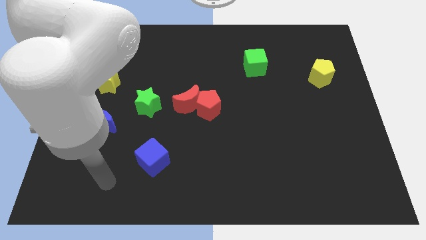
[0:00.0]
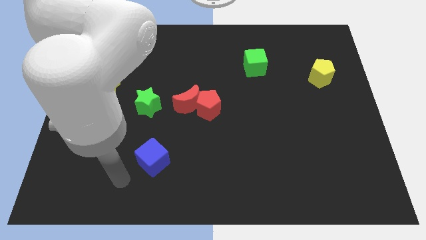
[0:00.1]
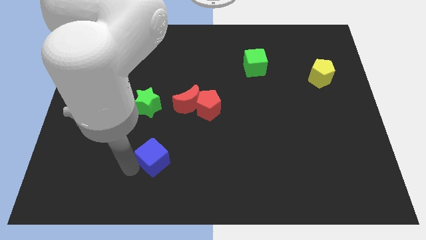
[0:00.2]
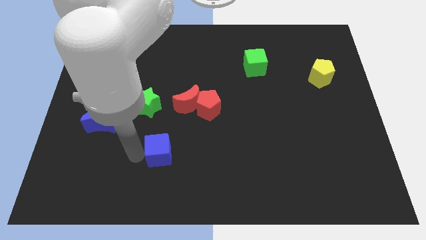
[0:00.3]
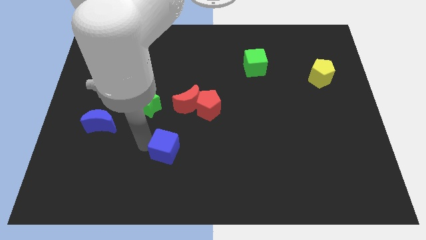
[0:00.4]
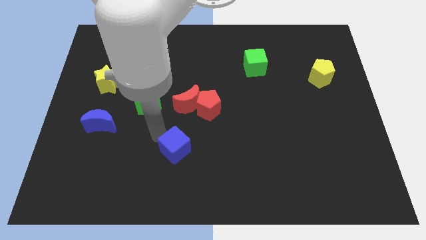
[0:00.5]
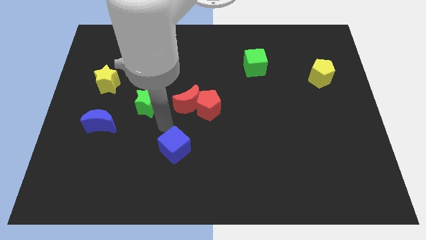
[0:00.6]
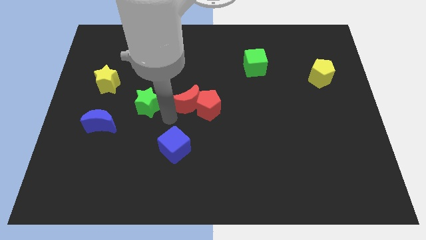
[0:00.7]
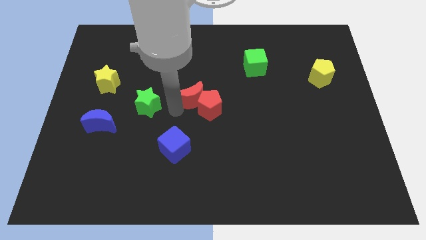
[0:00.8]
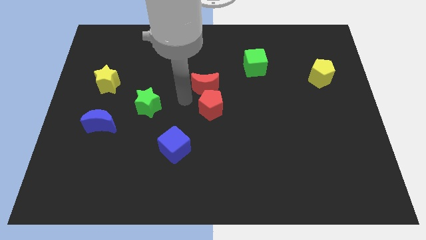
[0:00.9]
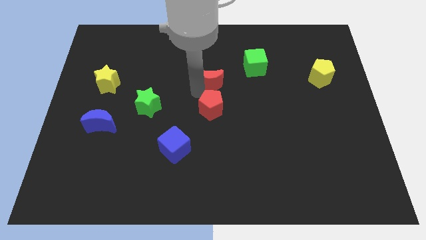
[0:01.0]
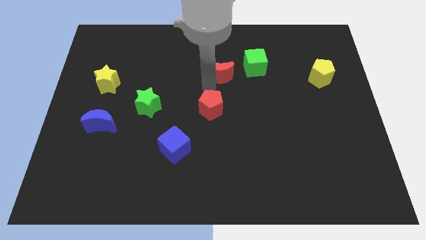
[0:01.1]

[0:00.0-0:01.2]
separate the red pentagon from the red moon

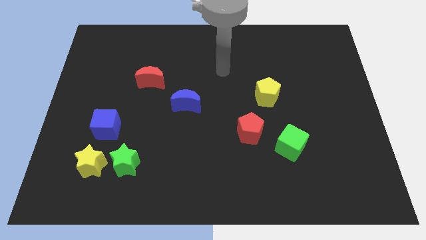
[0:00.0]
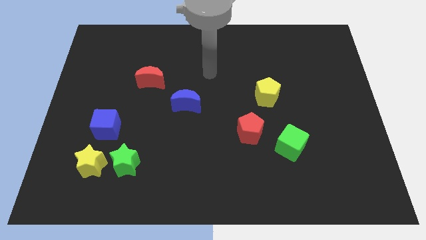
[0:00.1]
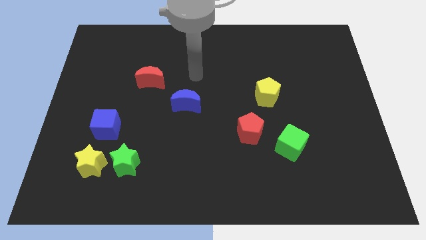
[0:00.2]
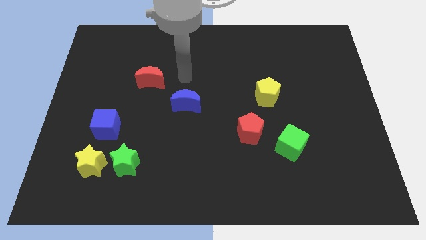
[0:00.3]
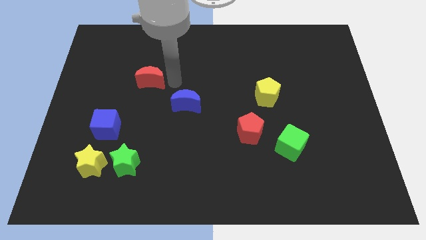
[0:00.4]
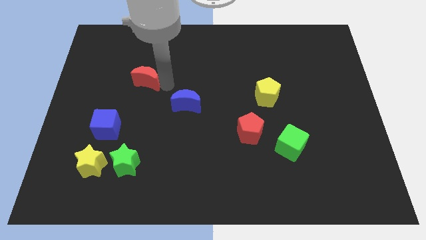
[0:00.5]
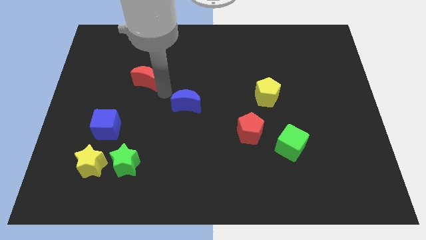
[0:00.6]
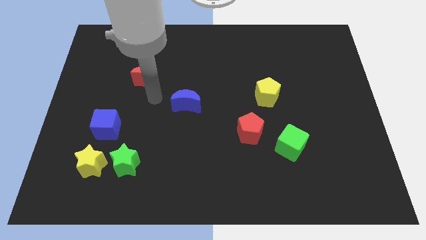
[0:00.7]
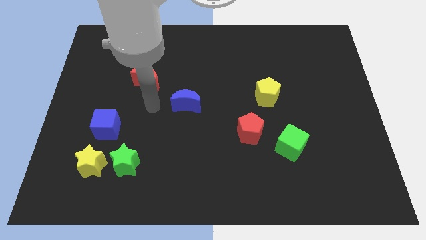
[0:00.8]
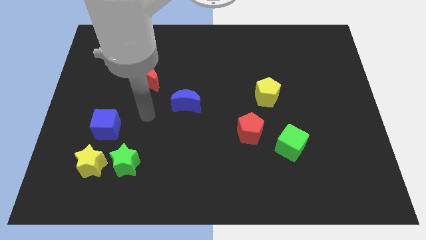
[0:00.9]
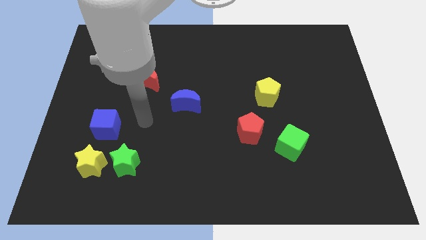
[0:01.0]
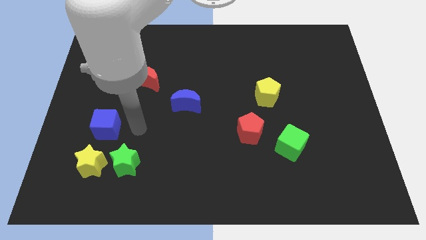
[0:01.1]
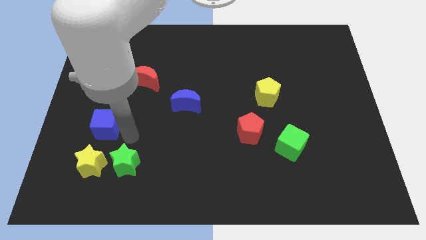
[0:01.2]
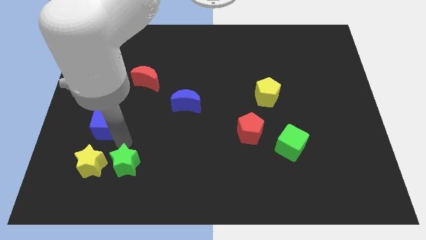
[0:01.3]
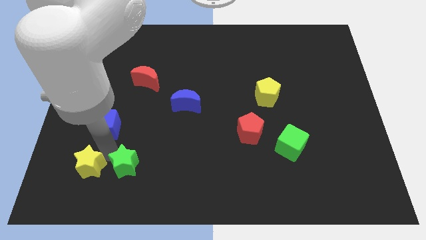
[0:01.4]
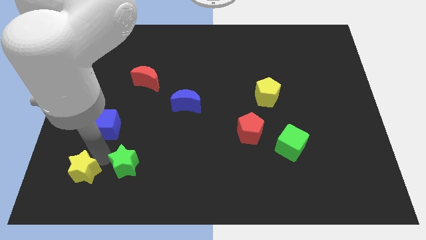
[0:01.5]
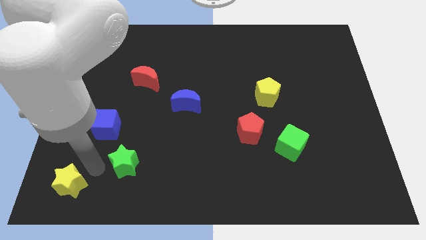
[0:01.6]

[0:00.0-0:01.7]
separate the green star from the yellow star

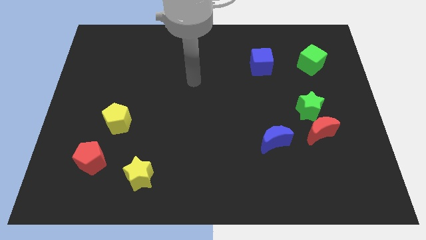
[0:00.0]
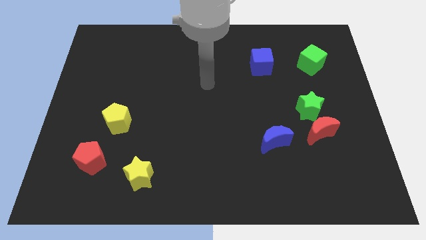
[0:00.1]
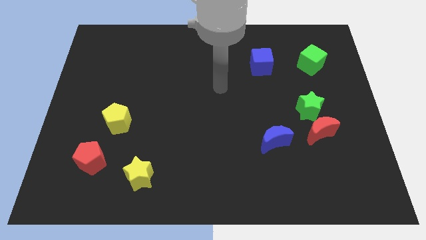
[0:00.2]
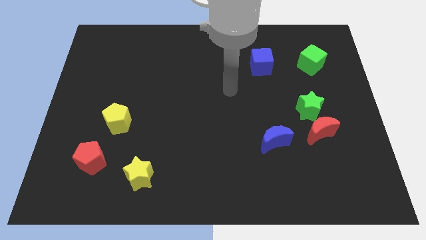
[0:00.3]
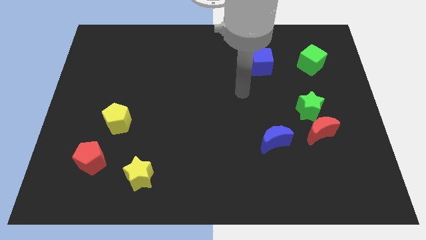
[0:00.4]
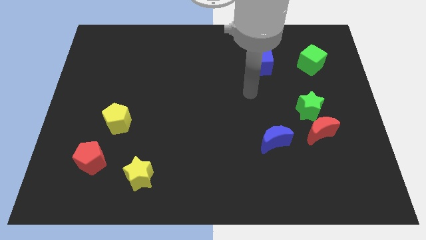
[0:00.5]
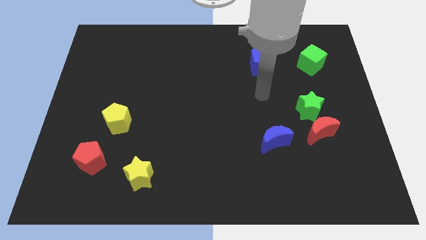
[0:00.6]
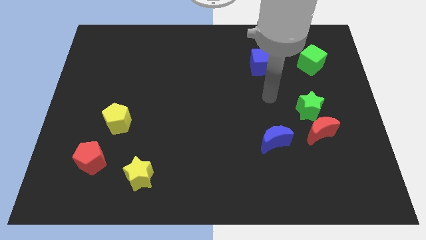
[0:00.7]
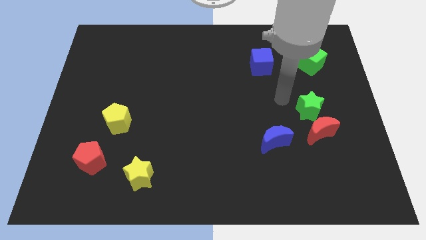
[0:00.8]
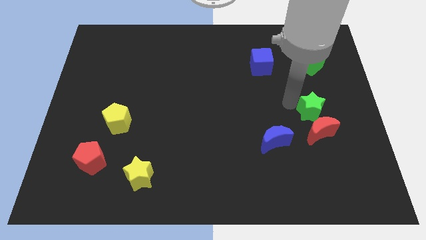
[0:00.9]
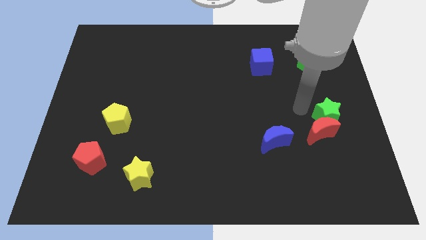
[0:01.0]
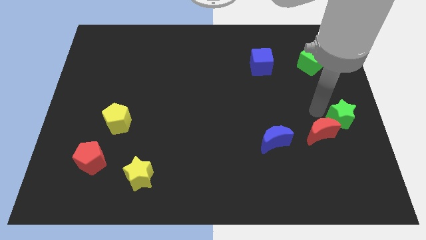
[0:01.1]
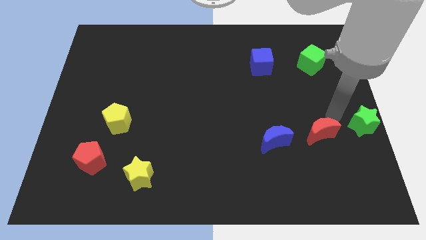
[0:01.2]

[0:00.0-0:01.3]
move the red moon away from the green star

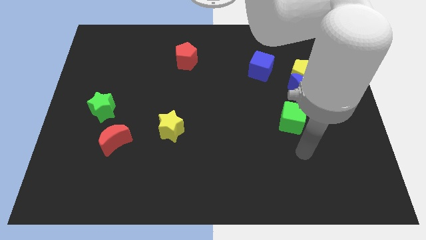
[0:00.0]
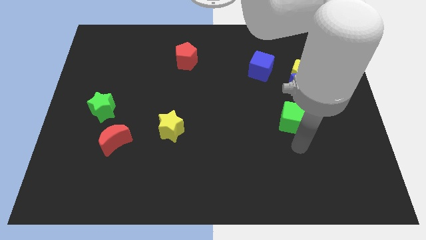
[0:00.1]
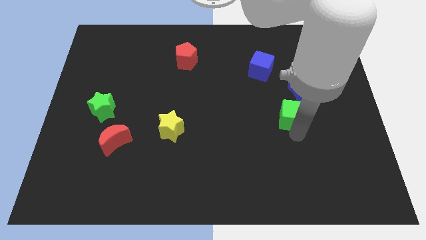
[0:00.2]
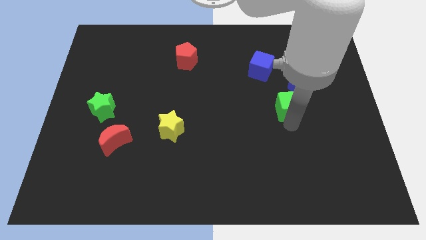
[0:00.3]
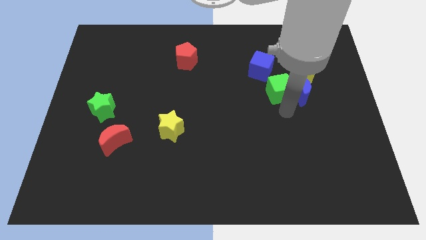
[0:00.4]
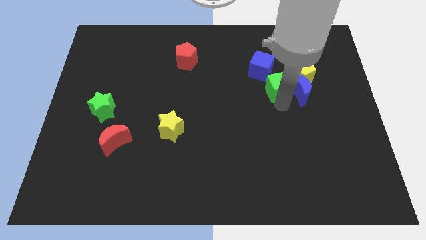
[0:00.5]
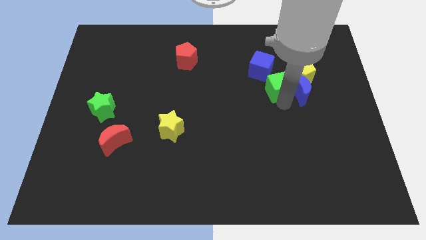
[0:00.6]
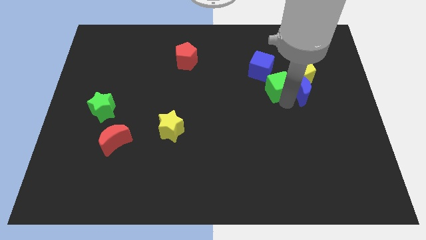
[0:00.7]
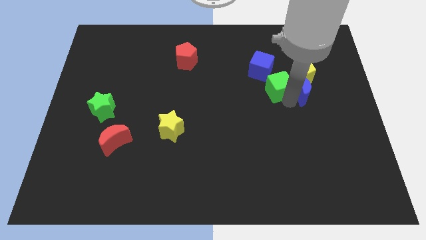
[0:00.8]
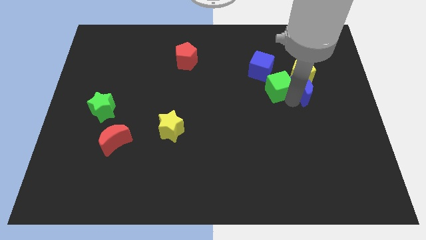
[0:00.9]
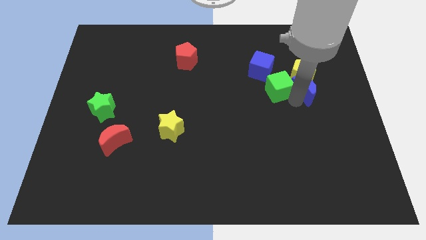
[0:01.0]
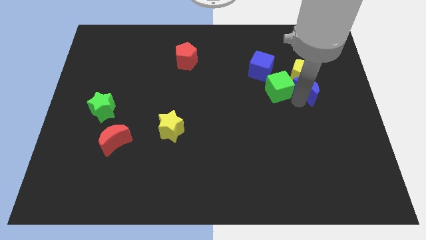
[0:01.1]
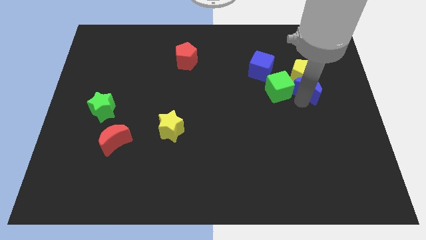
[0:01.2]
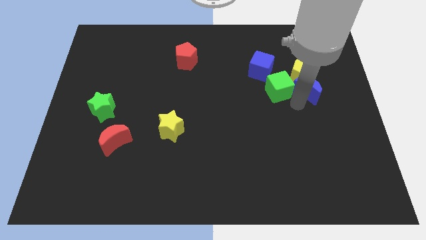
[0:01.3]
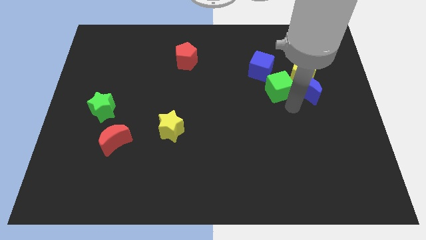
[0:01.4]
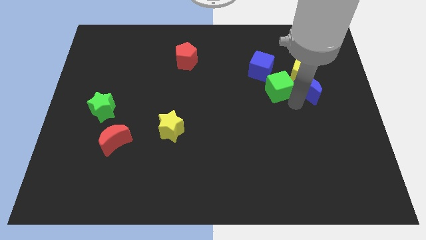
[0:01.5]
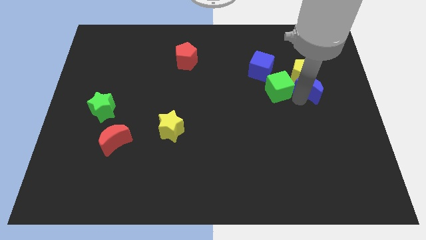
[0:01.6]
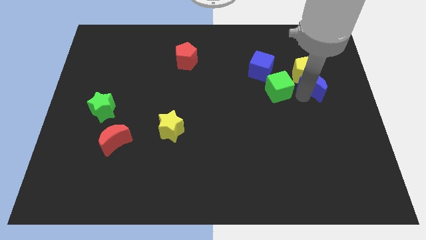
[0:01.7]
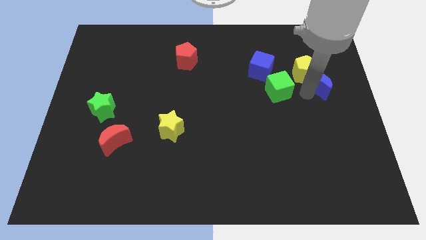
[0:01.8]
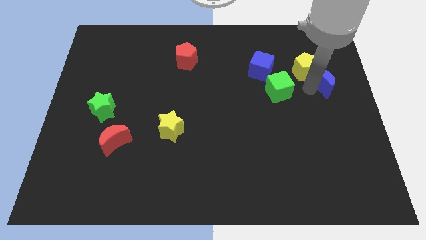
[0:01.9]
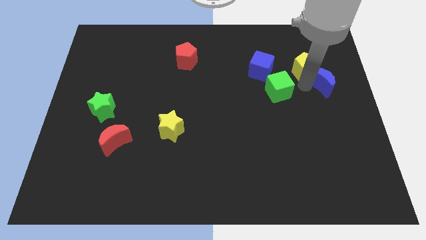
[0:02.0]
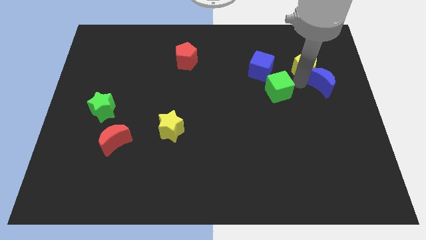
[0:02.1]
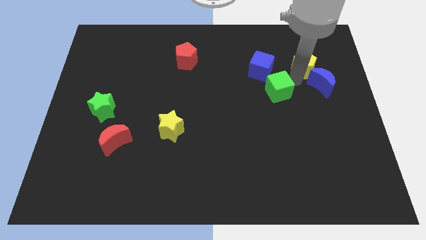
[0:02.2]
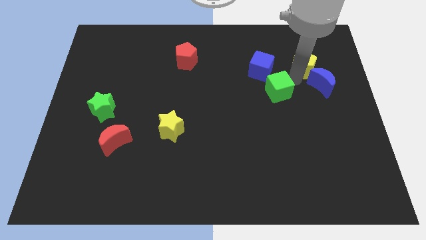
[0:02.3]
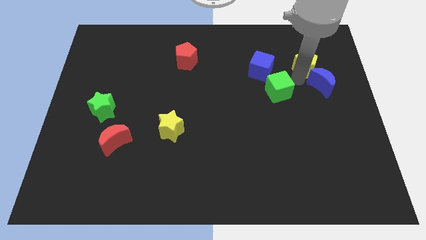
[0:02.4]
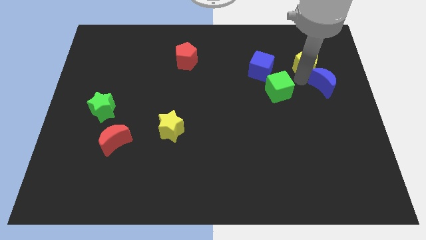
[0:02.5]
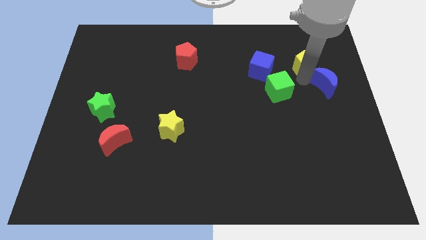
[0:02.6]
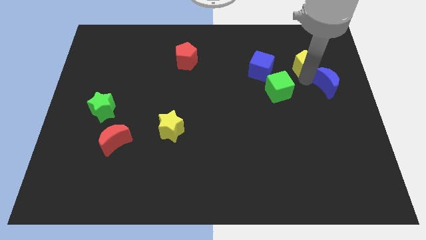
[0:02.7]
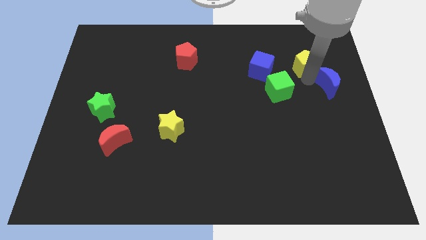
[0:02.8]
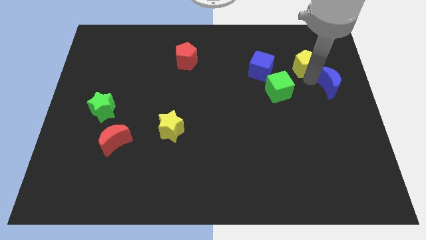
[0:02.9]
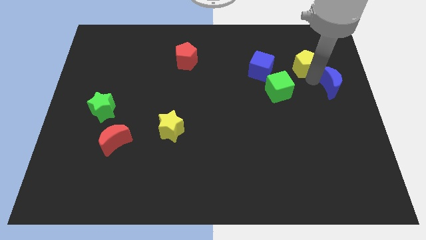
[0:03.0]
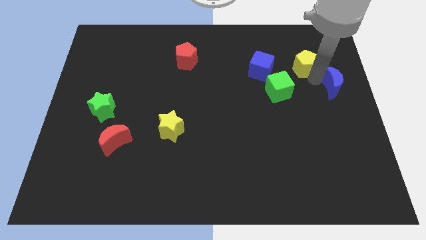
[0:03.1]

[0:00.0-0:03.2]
move the blue moon away from the yellow pentagon and green cube

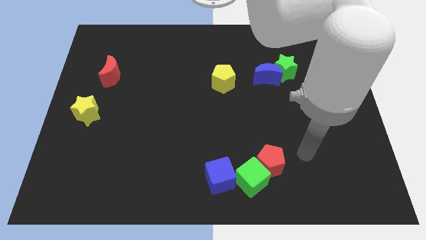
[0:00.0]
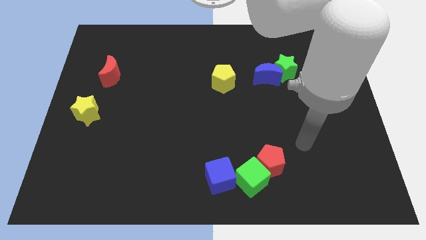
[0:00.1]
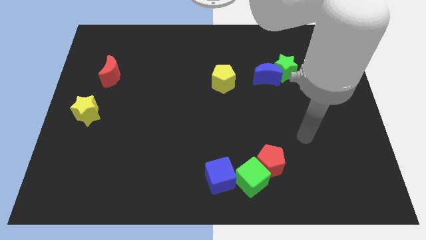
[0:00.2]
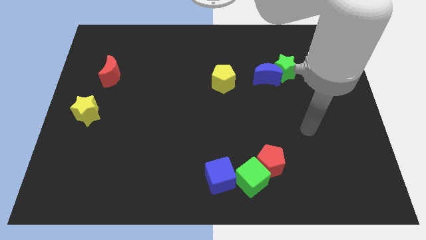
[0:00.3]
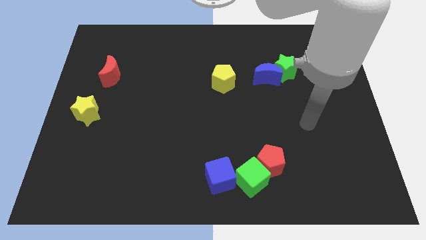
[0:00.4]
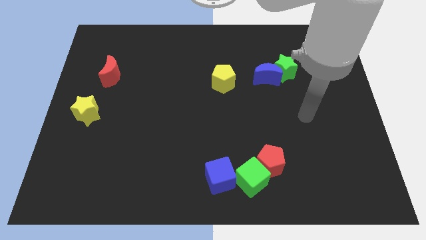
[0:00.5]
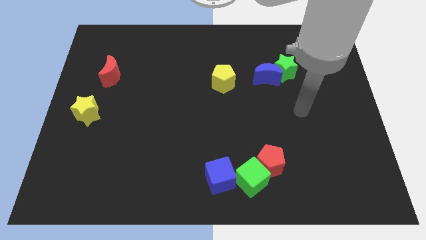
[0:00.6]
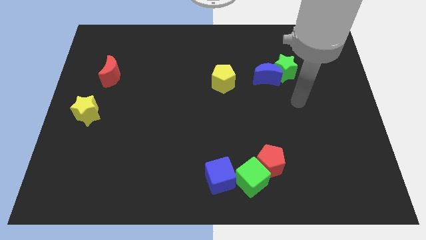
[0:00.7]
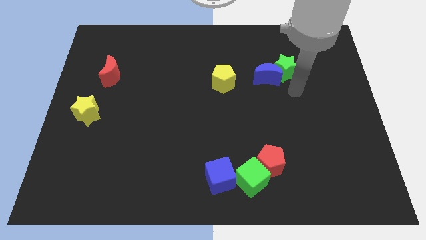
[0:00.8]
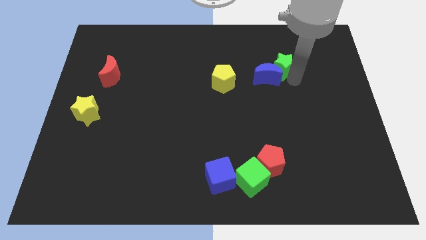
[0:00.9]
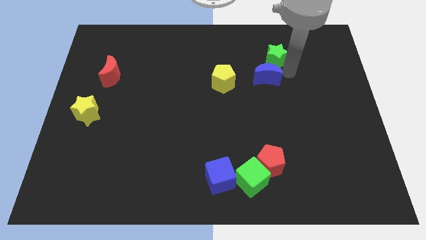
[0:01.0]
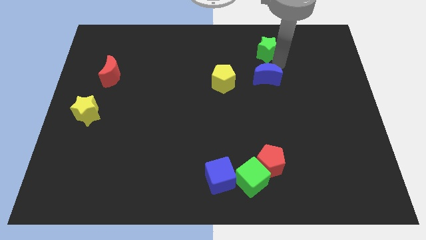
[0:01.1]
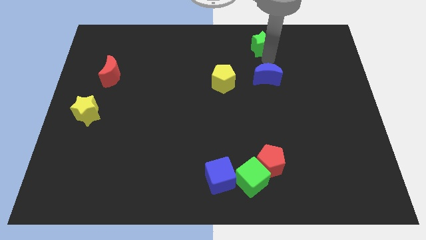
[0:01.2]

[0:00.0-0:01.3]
move the blue moon away from the green star

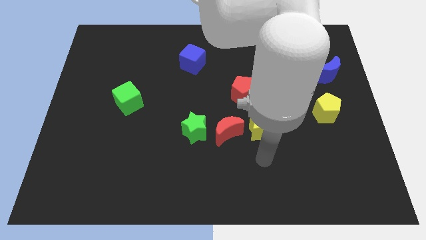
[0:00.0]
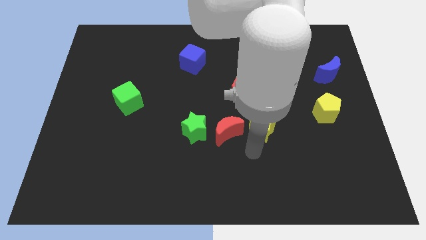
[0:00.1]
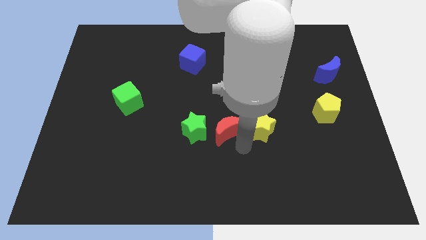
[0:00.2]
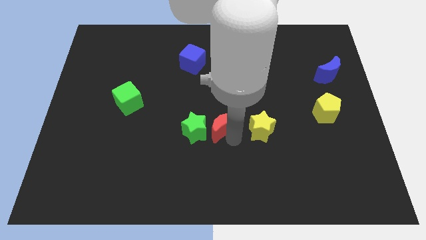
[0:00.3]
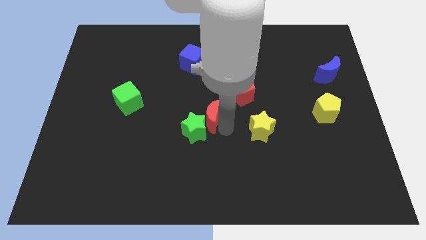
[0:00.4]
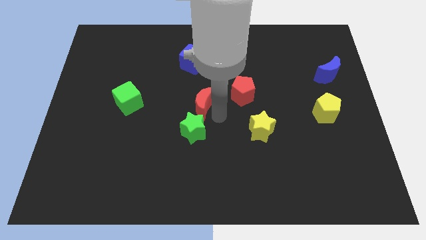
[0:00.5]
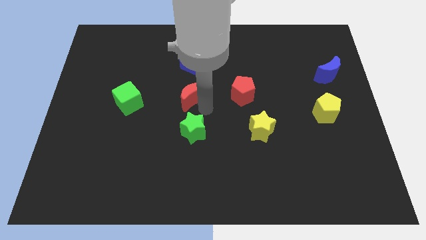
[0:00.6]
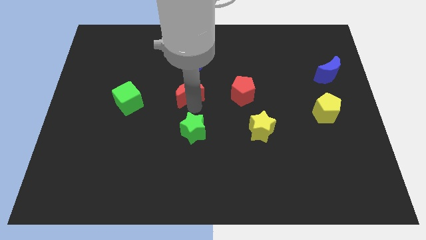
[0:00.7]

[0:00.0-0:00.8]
pull the green star apart from the red moon
